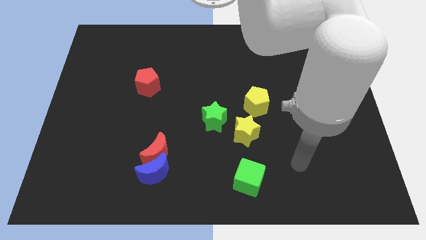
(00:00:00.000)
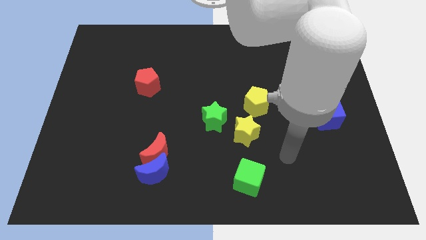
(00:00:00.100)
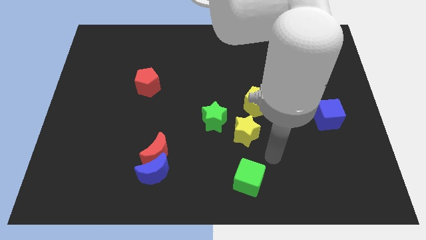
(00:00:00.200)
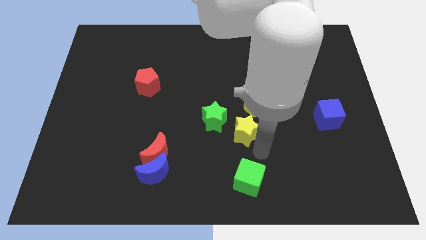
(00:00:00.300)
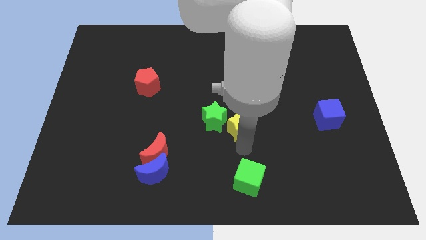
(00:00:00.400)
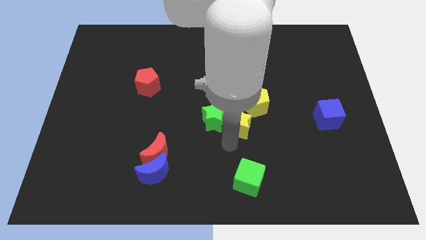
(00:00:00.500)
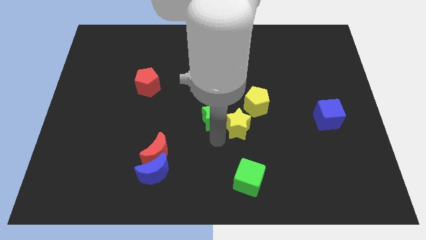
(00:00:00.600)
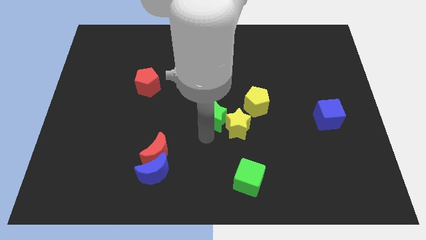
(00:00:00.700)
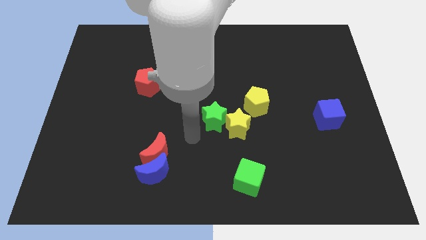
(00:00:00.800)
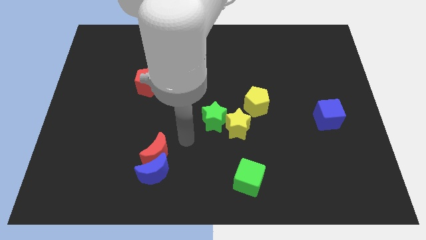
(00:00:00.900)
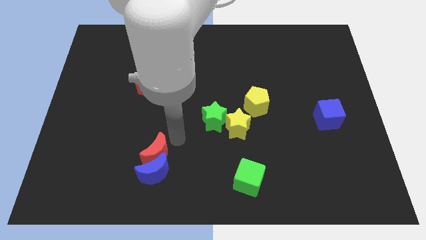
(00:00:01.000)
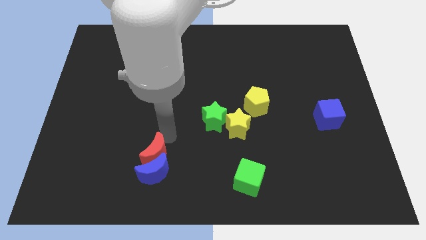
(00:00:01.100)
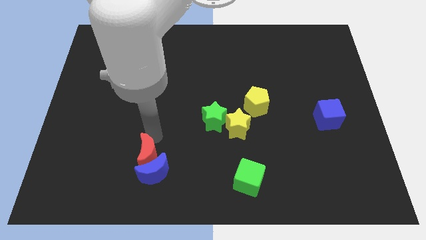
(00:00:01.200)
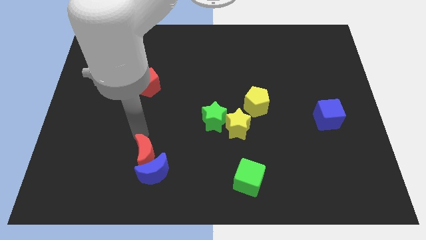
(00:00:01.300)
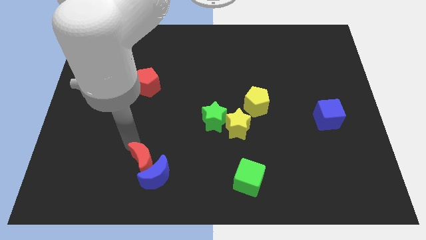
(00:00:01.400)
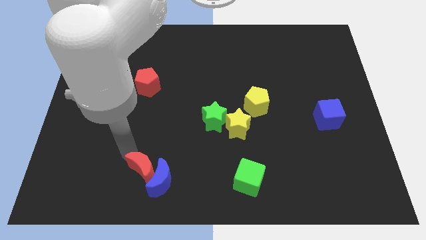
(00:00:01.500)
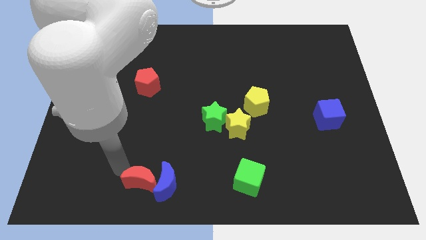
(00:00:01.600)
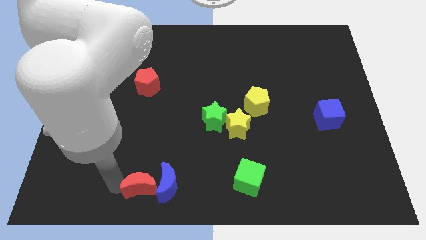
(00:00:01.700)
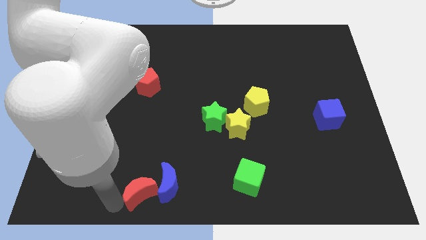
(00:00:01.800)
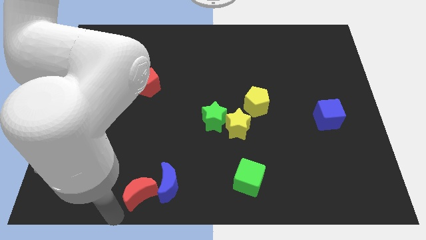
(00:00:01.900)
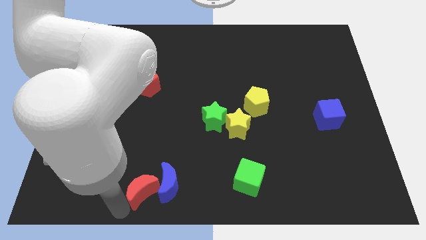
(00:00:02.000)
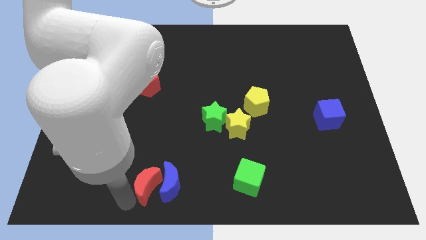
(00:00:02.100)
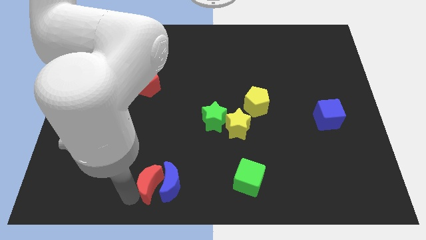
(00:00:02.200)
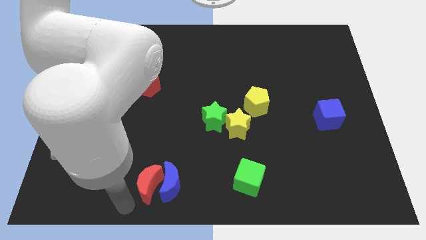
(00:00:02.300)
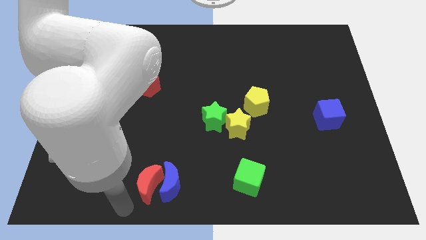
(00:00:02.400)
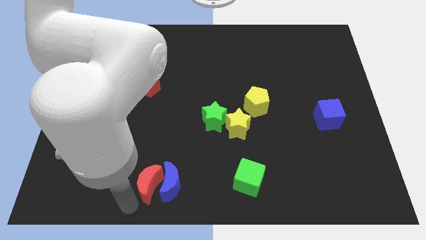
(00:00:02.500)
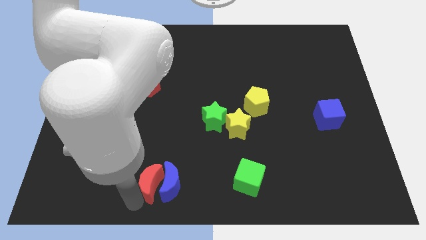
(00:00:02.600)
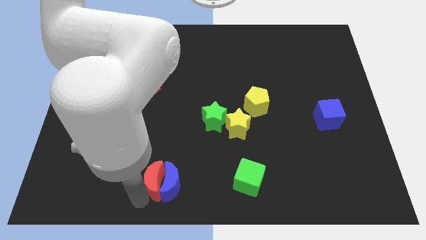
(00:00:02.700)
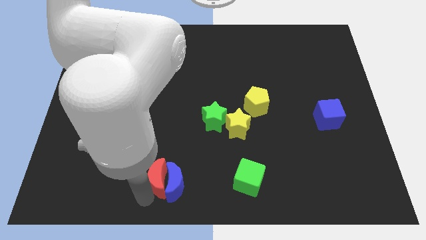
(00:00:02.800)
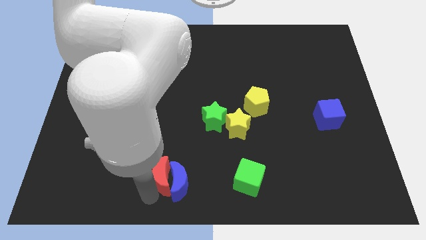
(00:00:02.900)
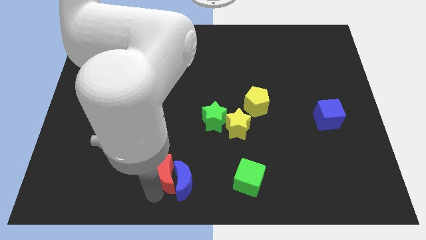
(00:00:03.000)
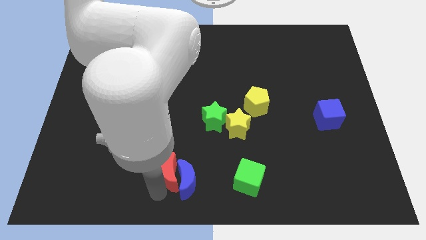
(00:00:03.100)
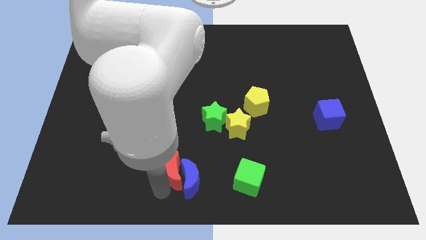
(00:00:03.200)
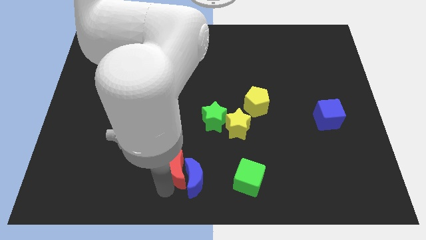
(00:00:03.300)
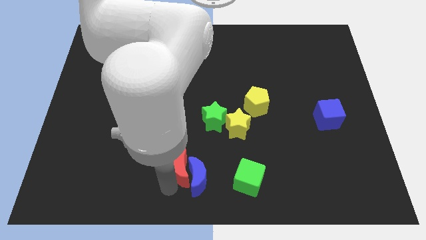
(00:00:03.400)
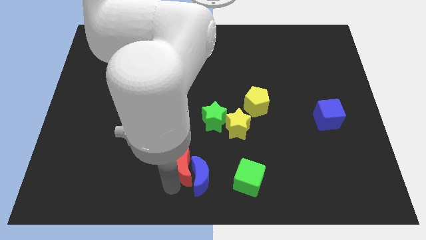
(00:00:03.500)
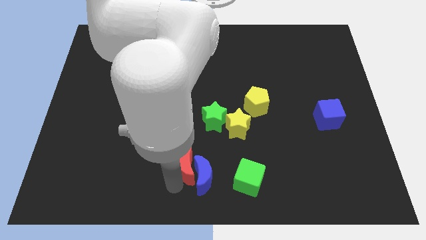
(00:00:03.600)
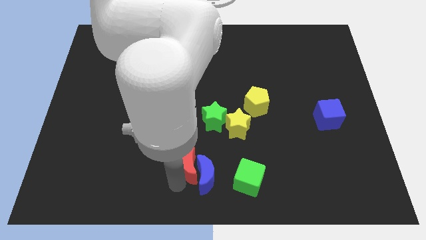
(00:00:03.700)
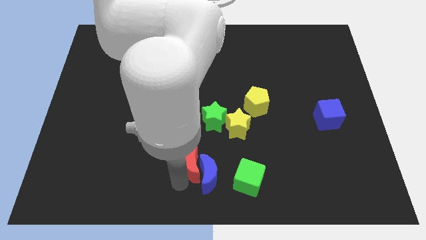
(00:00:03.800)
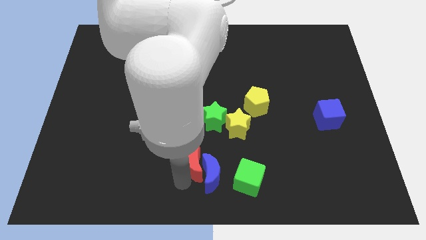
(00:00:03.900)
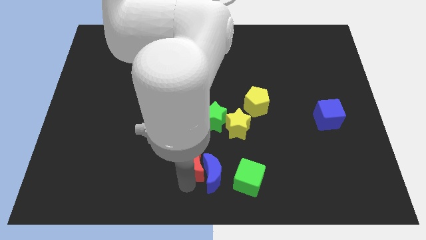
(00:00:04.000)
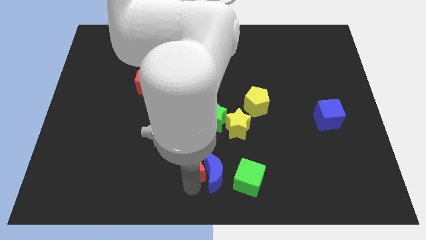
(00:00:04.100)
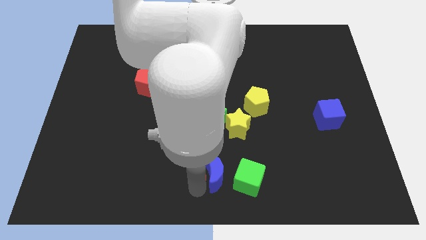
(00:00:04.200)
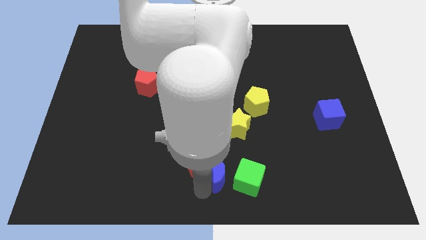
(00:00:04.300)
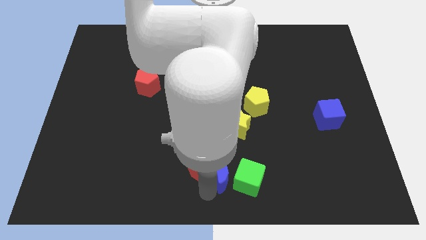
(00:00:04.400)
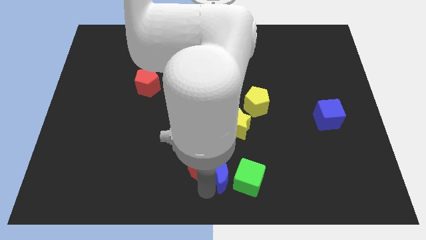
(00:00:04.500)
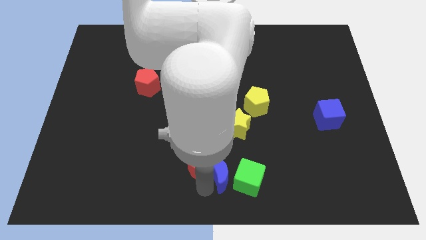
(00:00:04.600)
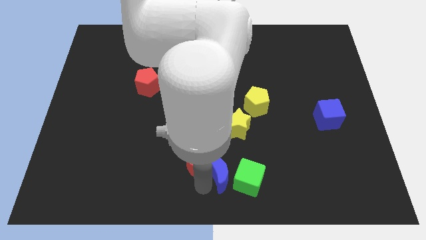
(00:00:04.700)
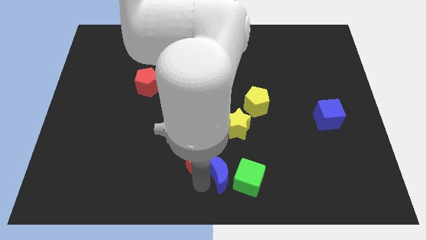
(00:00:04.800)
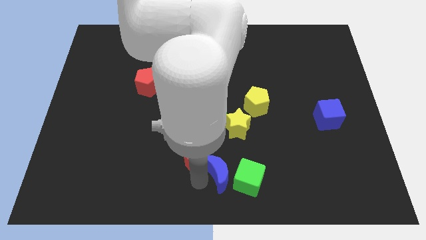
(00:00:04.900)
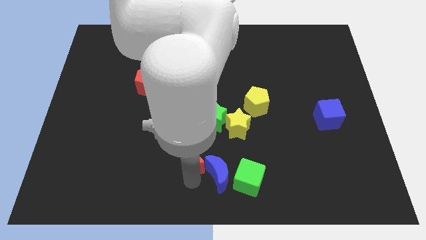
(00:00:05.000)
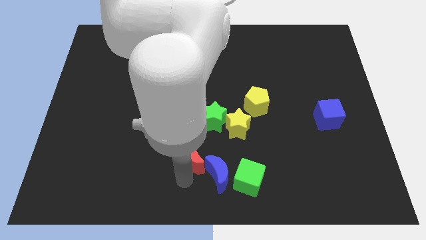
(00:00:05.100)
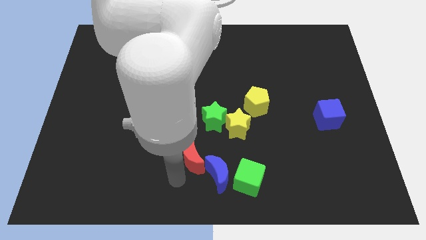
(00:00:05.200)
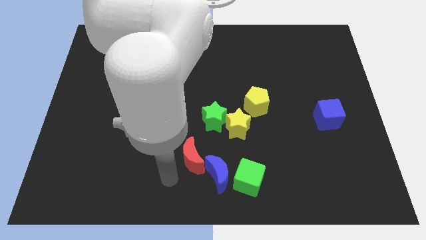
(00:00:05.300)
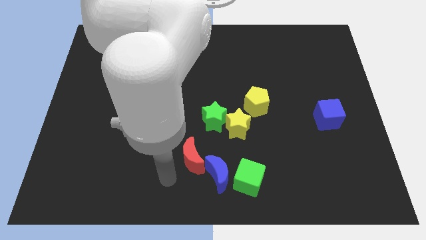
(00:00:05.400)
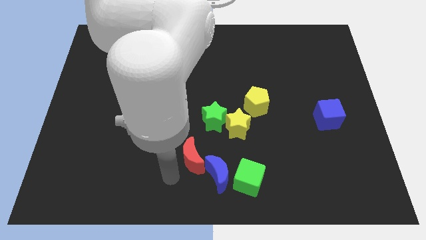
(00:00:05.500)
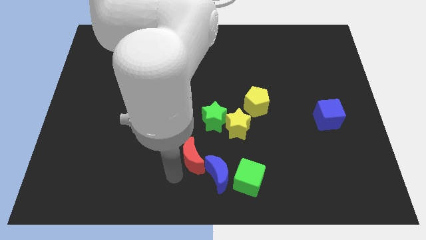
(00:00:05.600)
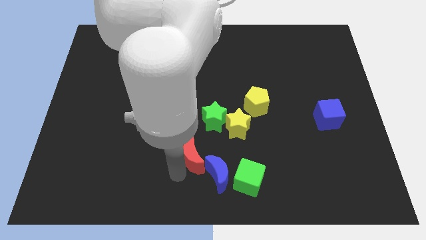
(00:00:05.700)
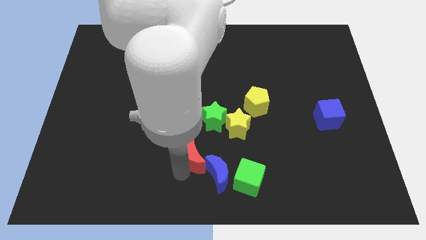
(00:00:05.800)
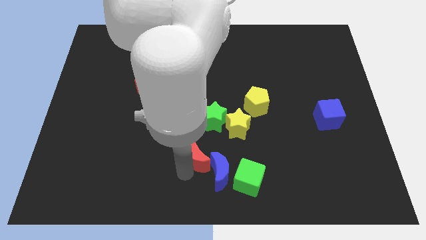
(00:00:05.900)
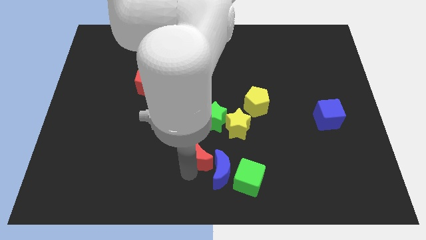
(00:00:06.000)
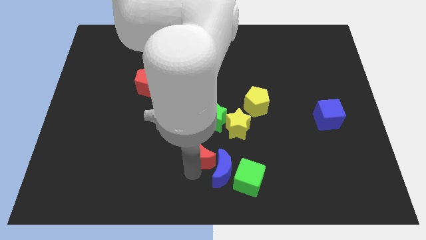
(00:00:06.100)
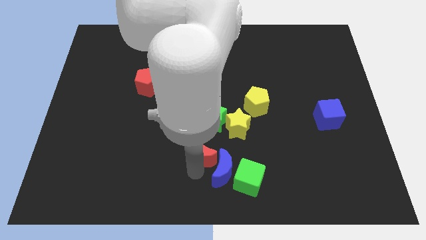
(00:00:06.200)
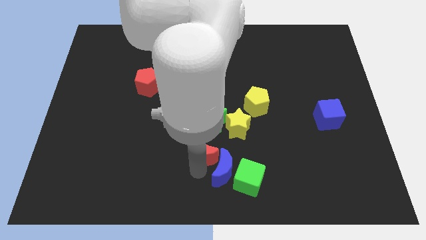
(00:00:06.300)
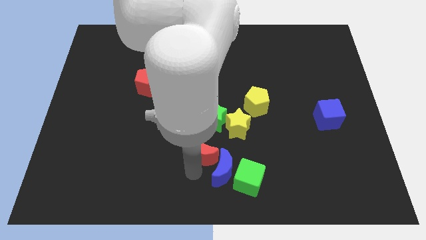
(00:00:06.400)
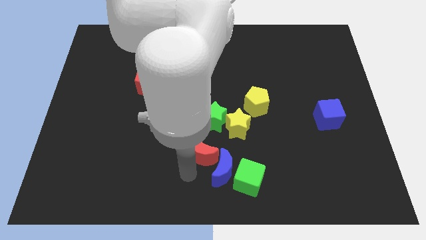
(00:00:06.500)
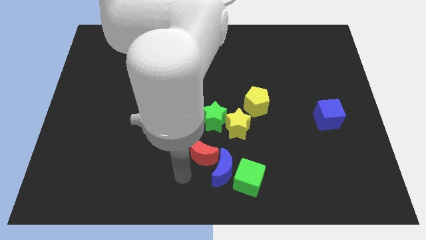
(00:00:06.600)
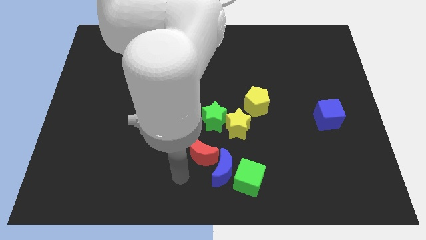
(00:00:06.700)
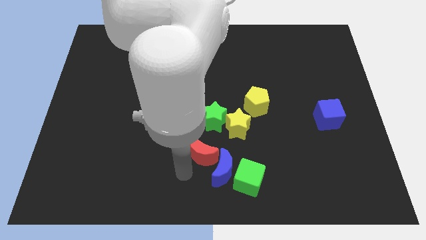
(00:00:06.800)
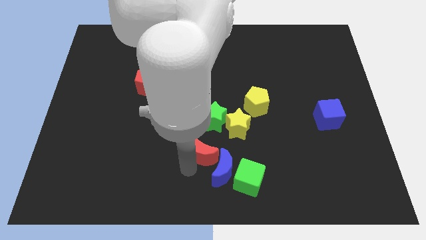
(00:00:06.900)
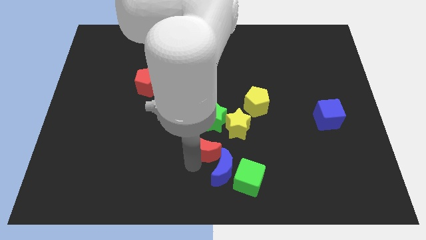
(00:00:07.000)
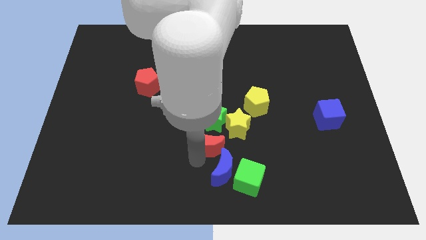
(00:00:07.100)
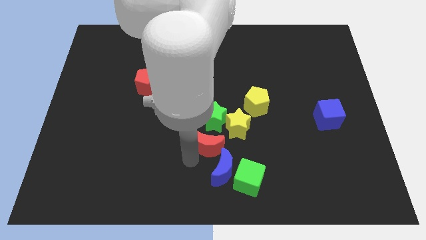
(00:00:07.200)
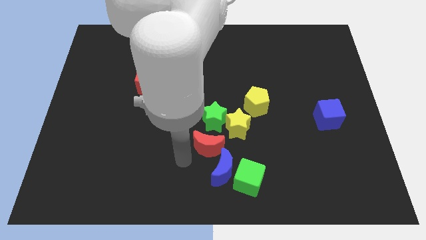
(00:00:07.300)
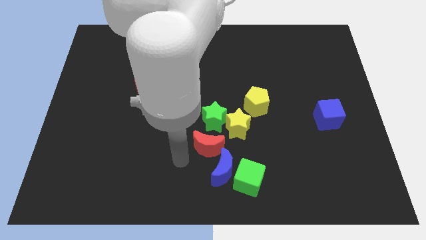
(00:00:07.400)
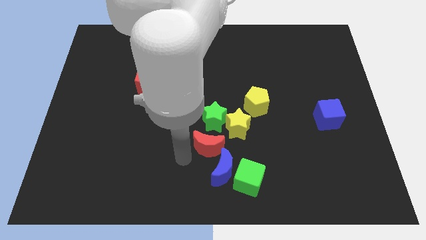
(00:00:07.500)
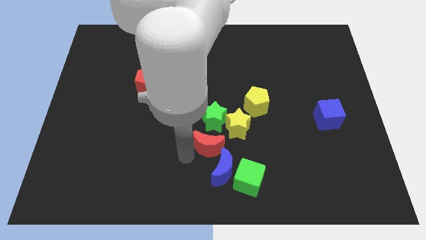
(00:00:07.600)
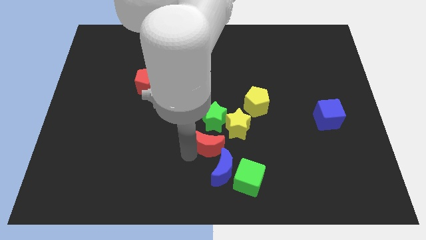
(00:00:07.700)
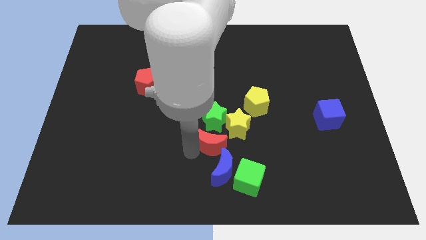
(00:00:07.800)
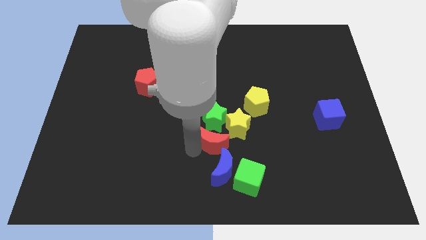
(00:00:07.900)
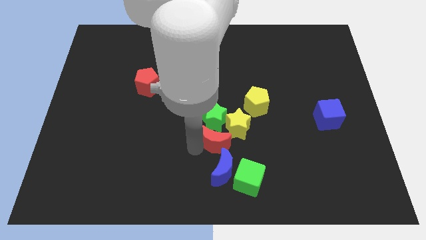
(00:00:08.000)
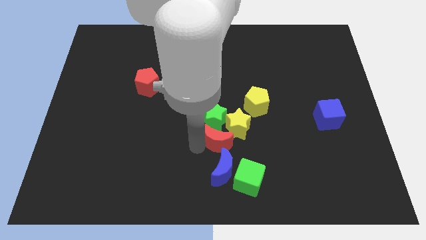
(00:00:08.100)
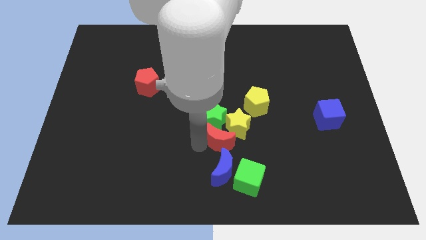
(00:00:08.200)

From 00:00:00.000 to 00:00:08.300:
move the red moon to the yellow star
